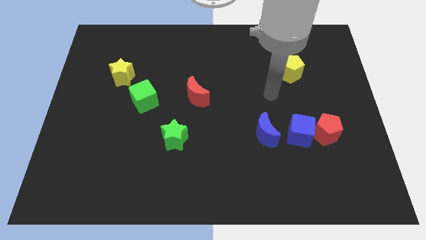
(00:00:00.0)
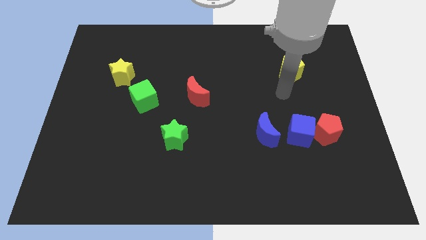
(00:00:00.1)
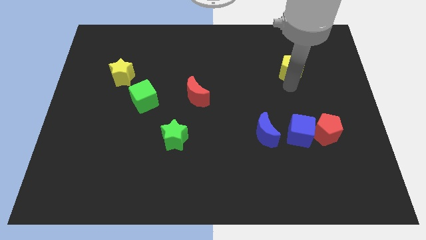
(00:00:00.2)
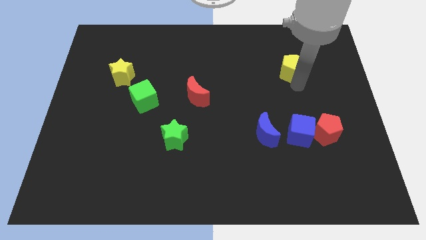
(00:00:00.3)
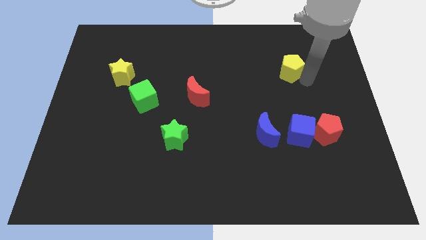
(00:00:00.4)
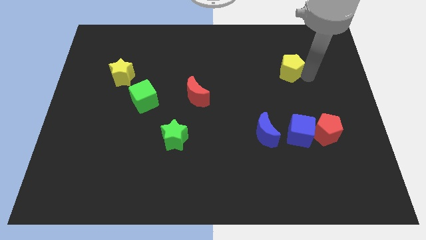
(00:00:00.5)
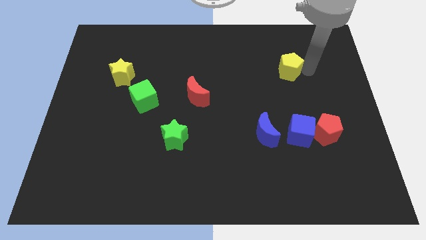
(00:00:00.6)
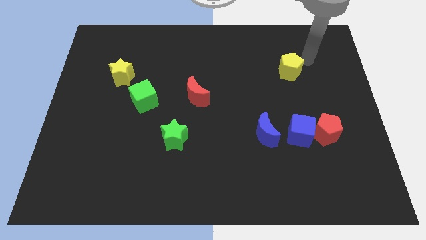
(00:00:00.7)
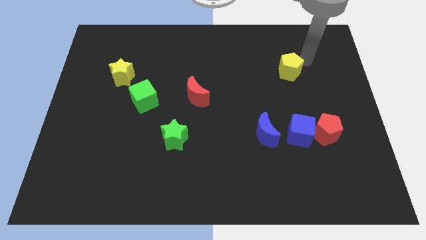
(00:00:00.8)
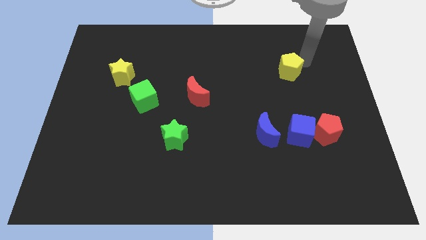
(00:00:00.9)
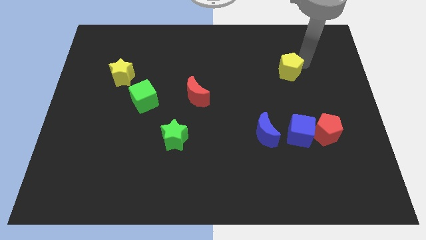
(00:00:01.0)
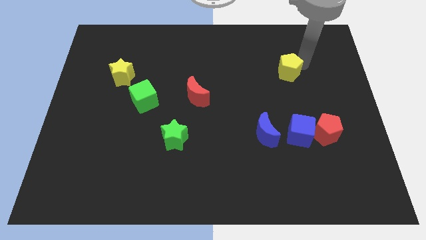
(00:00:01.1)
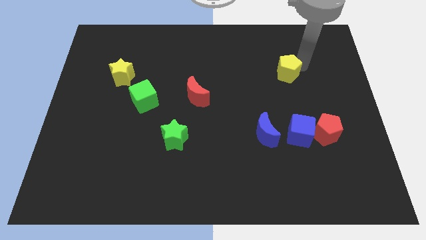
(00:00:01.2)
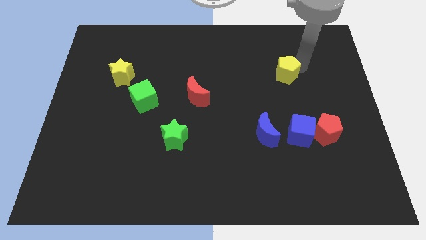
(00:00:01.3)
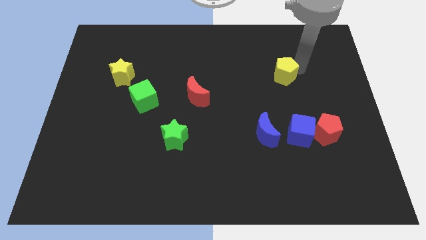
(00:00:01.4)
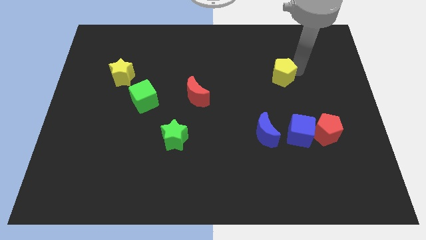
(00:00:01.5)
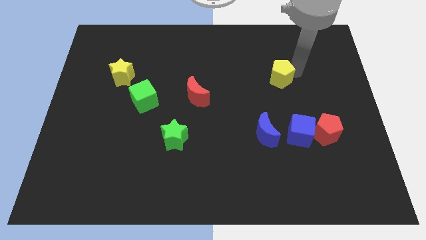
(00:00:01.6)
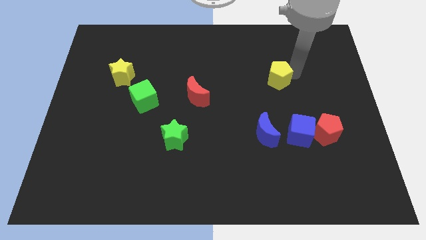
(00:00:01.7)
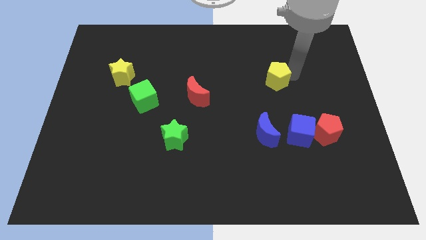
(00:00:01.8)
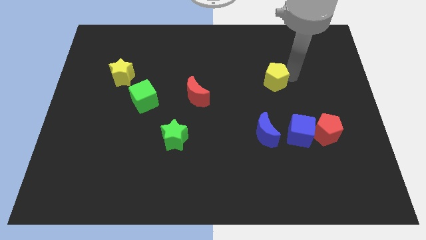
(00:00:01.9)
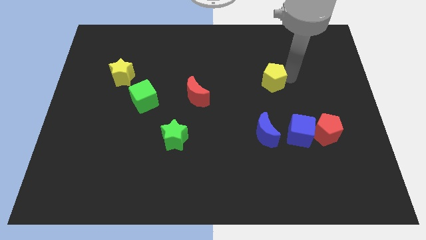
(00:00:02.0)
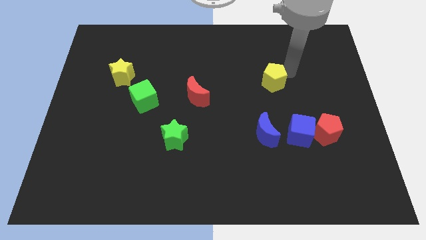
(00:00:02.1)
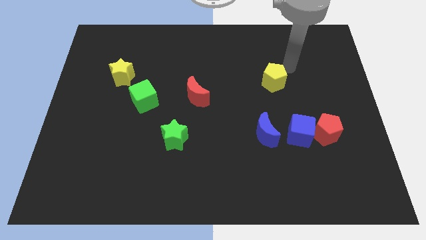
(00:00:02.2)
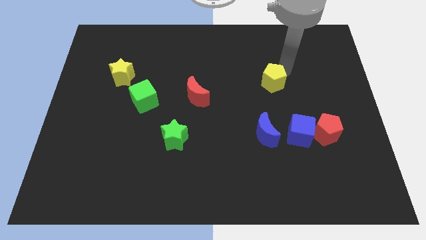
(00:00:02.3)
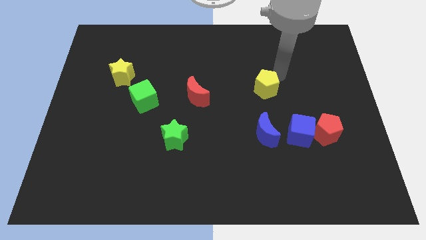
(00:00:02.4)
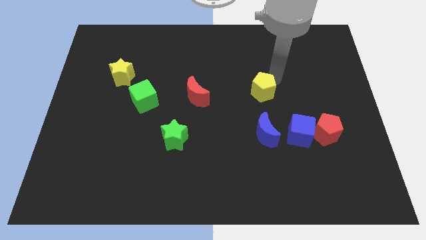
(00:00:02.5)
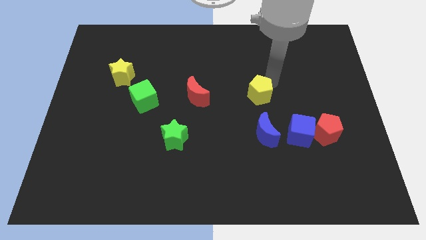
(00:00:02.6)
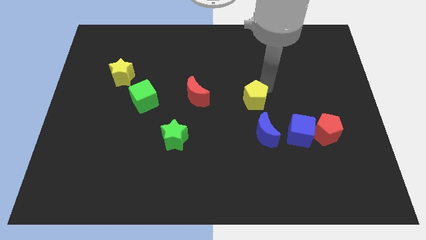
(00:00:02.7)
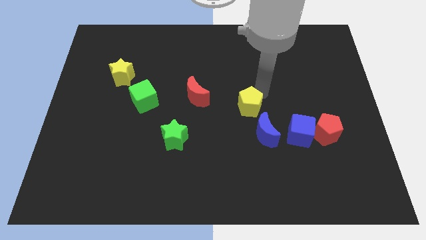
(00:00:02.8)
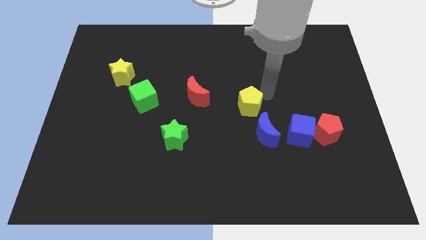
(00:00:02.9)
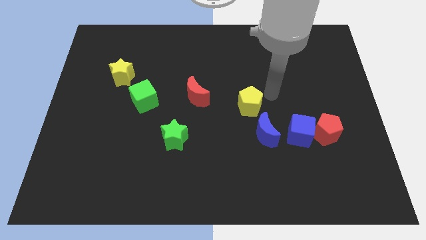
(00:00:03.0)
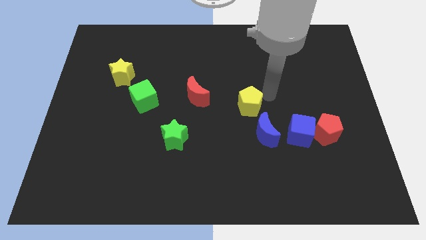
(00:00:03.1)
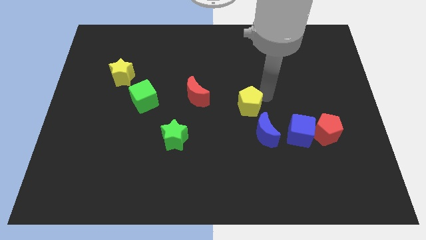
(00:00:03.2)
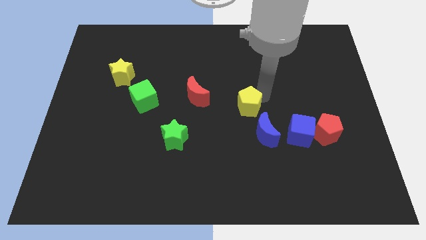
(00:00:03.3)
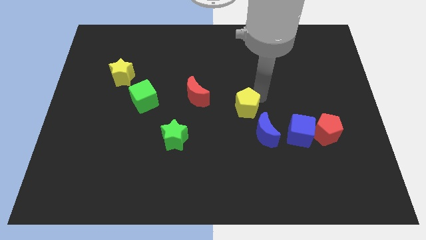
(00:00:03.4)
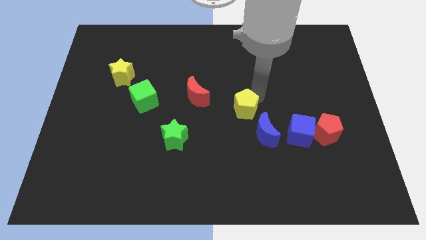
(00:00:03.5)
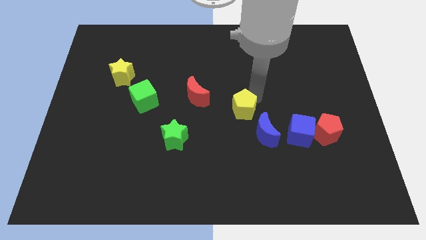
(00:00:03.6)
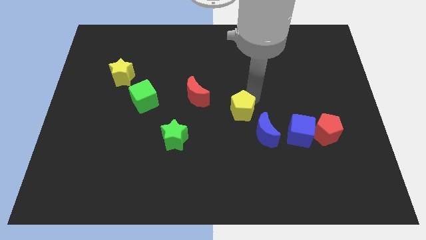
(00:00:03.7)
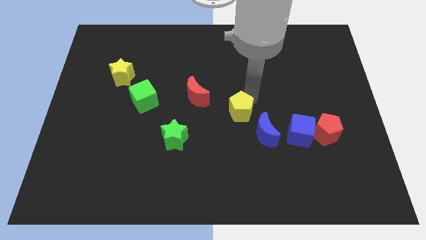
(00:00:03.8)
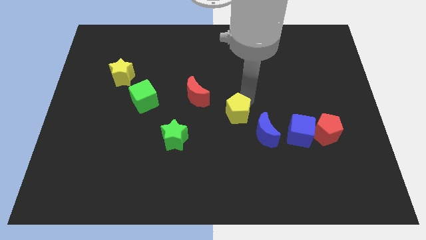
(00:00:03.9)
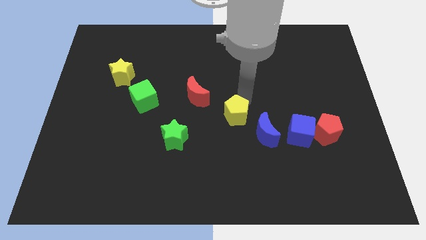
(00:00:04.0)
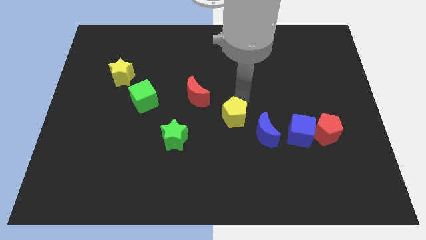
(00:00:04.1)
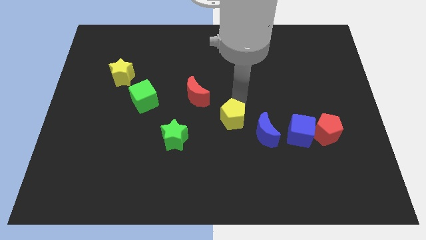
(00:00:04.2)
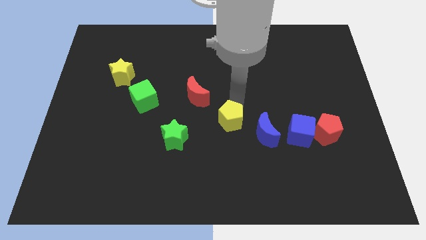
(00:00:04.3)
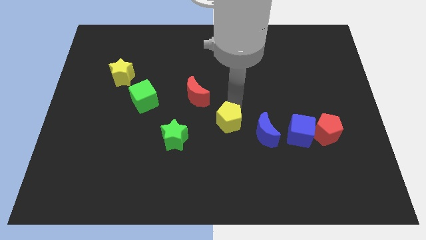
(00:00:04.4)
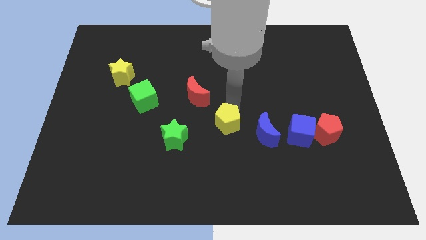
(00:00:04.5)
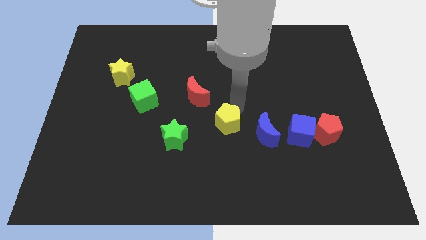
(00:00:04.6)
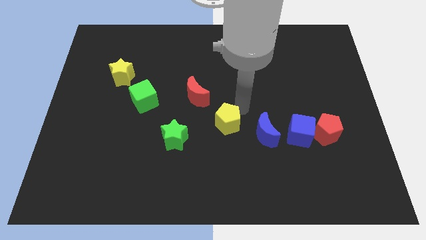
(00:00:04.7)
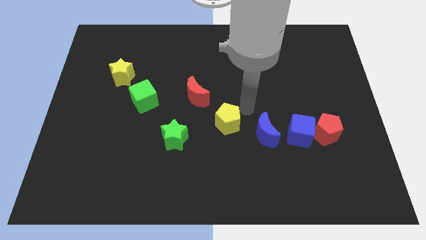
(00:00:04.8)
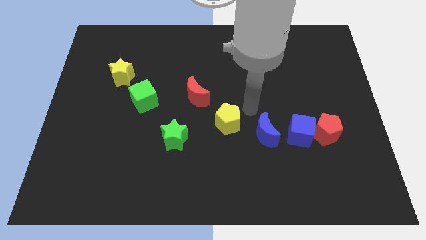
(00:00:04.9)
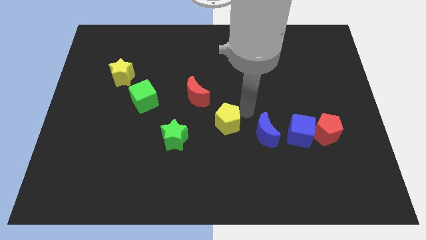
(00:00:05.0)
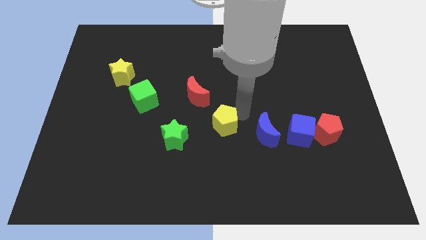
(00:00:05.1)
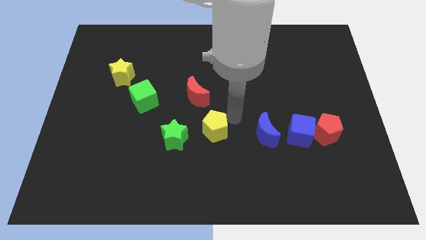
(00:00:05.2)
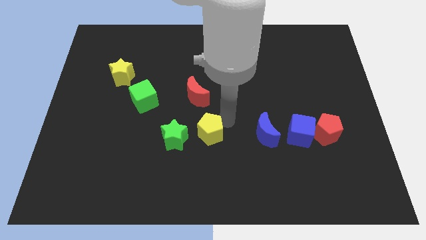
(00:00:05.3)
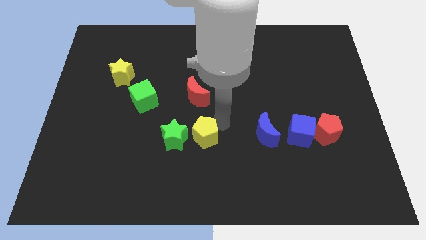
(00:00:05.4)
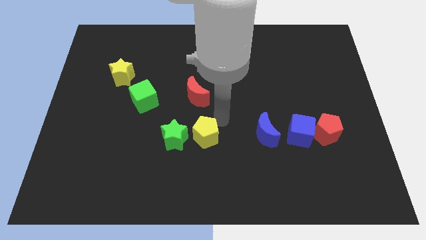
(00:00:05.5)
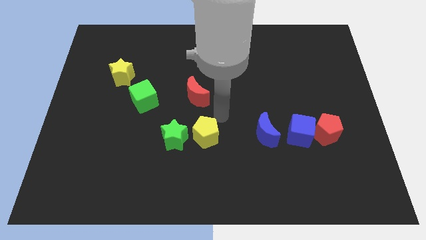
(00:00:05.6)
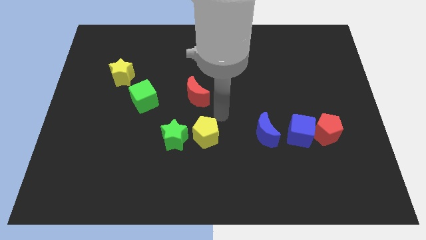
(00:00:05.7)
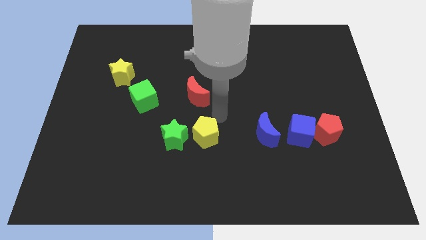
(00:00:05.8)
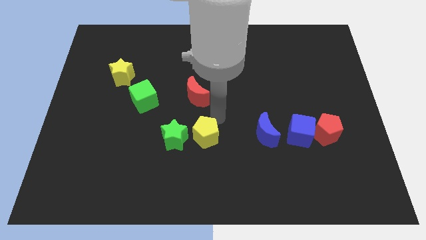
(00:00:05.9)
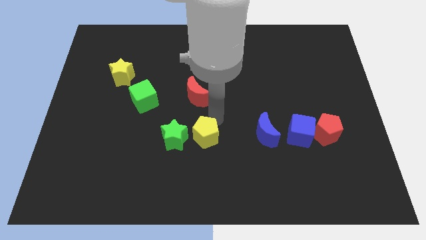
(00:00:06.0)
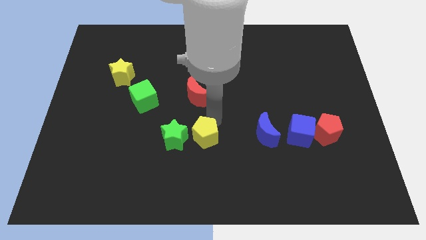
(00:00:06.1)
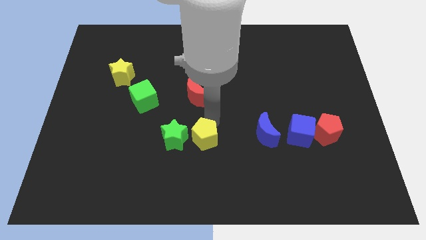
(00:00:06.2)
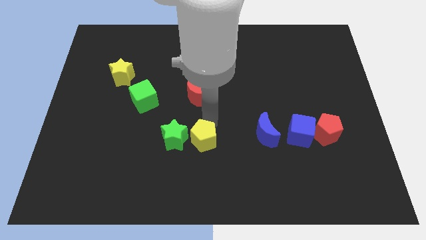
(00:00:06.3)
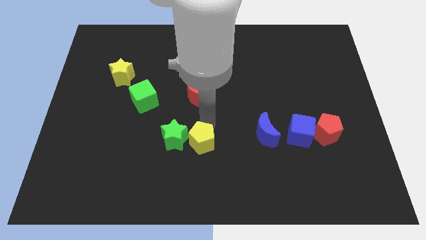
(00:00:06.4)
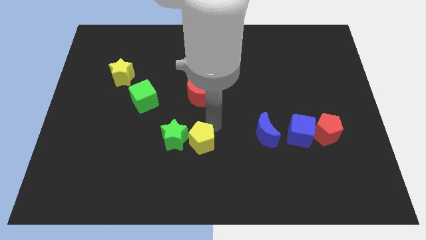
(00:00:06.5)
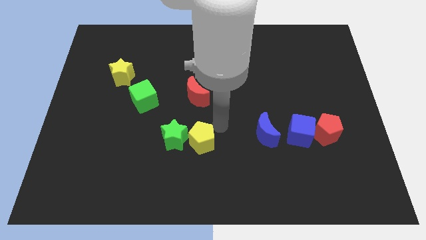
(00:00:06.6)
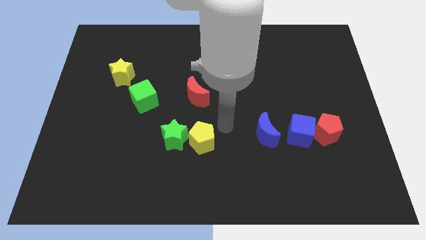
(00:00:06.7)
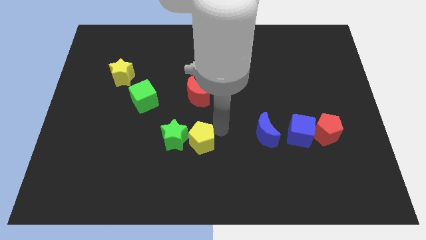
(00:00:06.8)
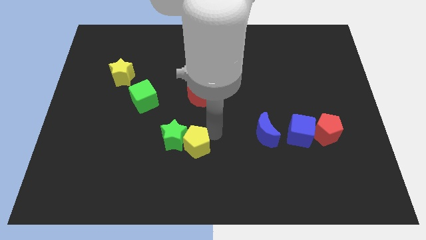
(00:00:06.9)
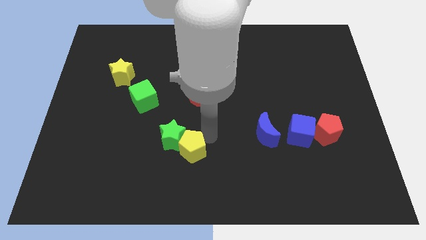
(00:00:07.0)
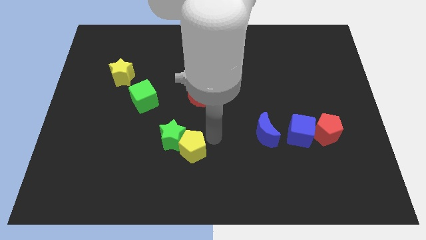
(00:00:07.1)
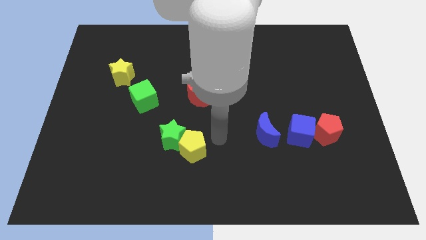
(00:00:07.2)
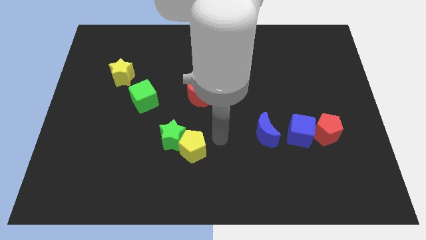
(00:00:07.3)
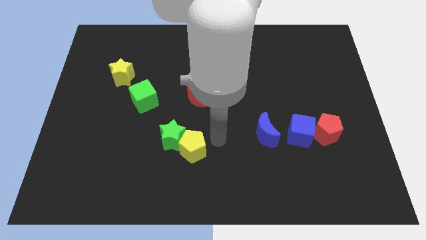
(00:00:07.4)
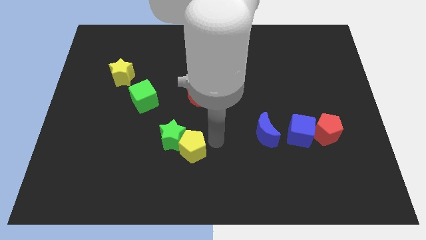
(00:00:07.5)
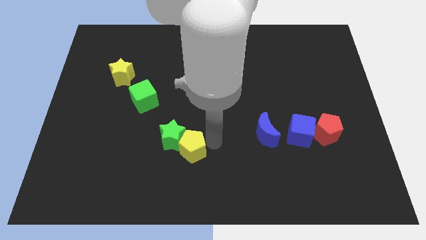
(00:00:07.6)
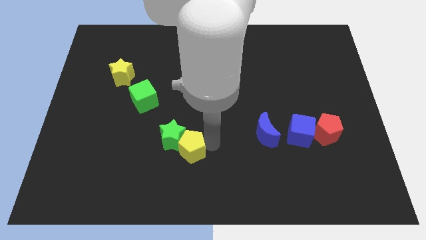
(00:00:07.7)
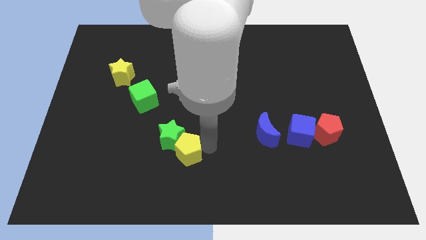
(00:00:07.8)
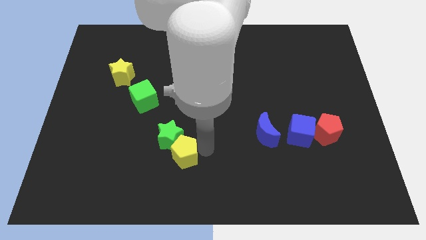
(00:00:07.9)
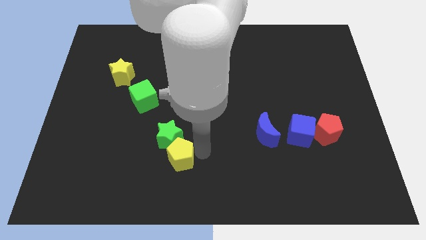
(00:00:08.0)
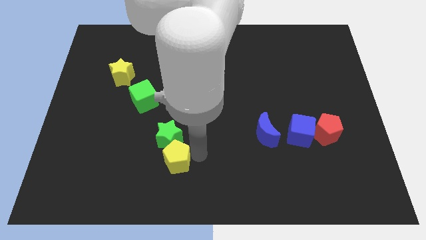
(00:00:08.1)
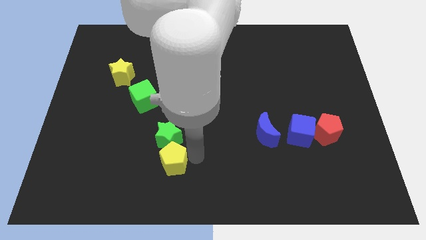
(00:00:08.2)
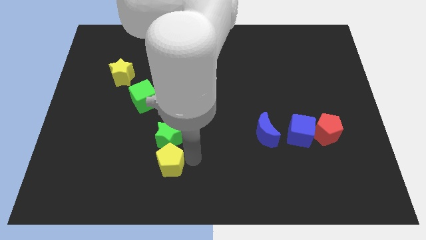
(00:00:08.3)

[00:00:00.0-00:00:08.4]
push the yellow pentagon to the bottom left of the green star
